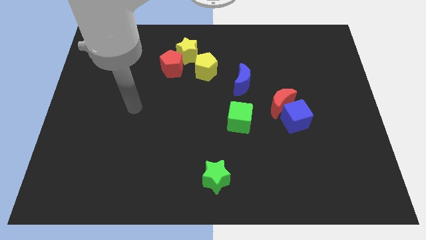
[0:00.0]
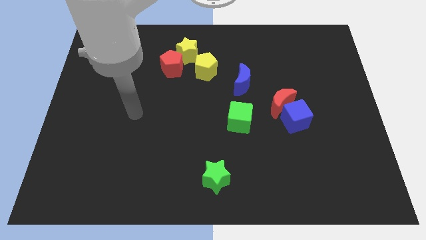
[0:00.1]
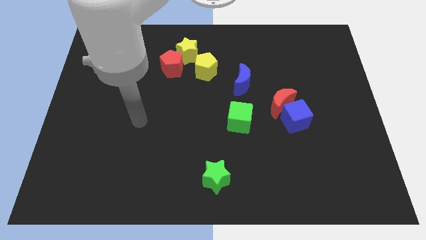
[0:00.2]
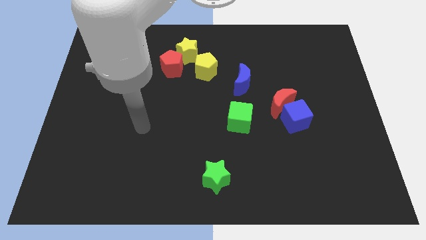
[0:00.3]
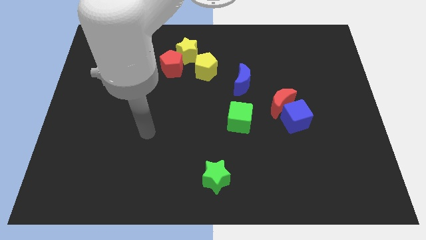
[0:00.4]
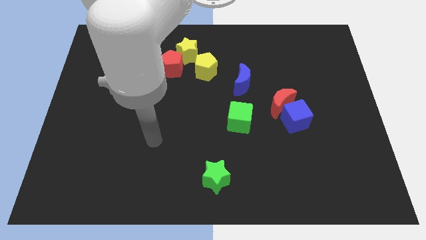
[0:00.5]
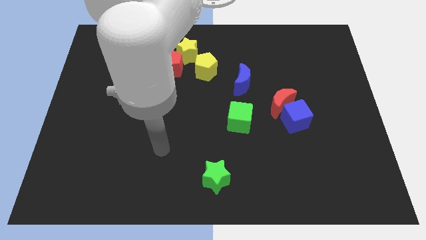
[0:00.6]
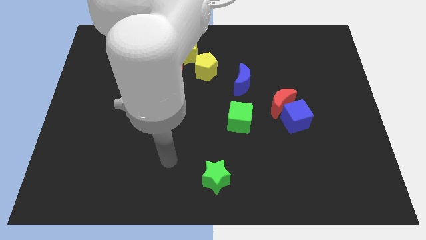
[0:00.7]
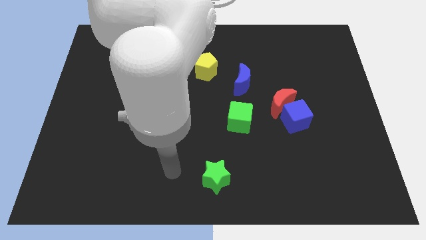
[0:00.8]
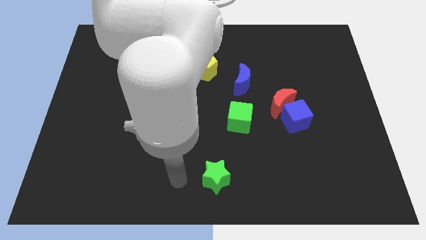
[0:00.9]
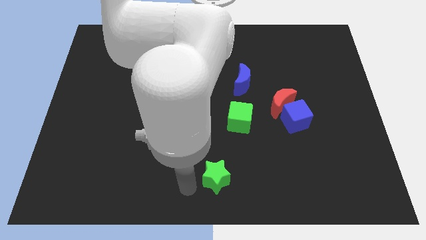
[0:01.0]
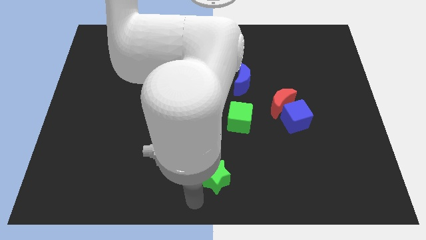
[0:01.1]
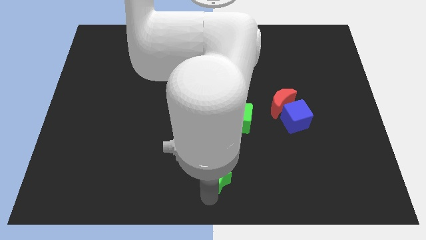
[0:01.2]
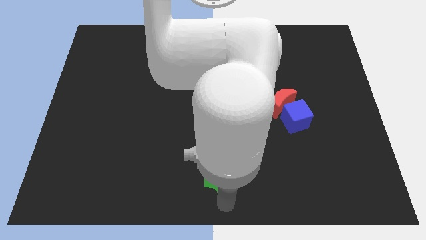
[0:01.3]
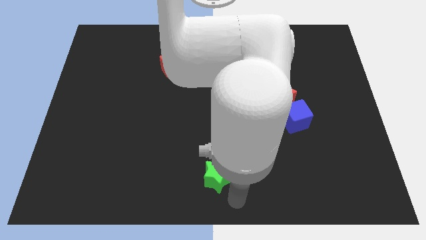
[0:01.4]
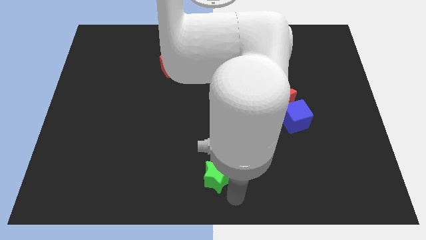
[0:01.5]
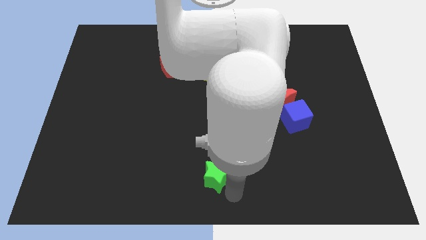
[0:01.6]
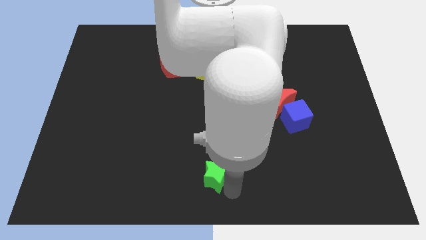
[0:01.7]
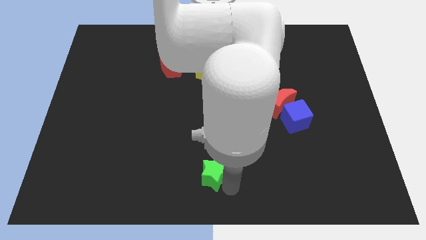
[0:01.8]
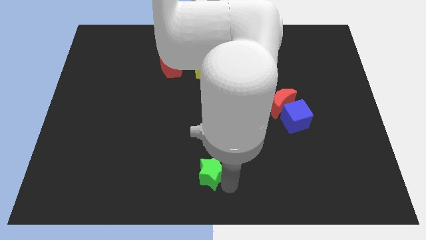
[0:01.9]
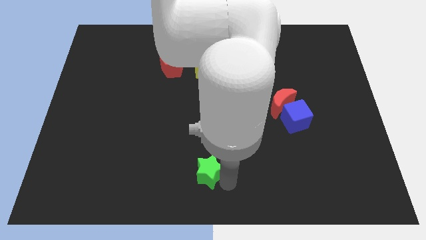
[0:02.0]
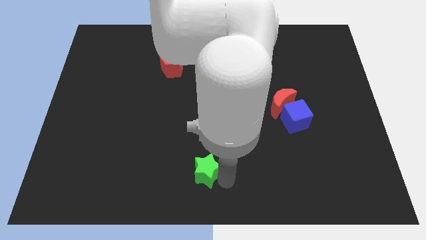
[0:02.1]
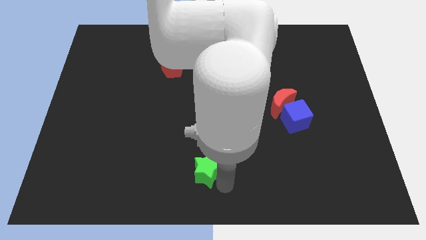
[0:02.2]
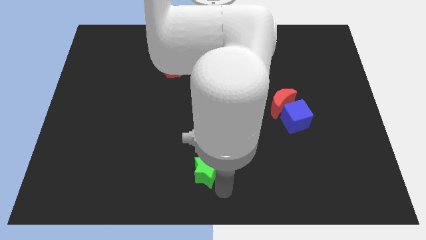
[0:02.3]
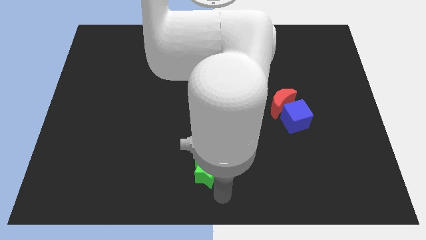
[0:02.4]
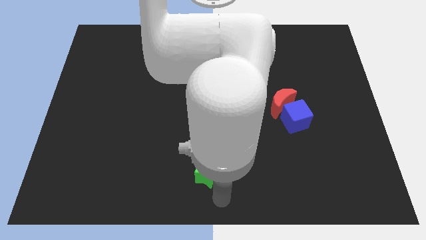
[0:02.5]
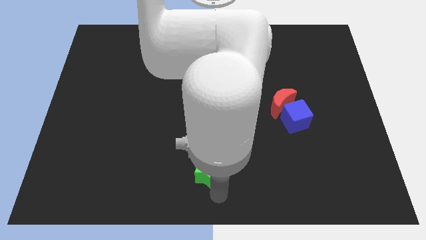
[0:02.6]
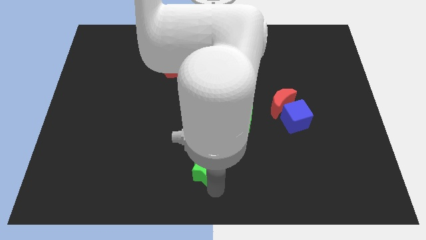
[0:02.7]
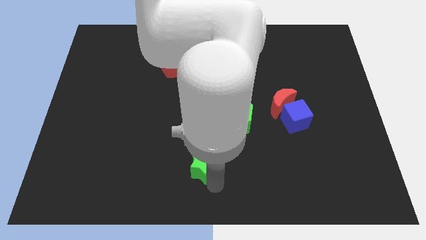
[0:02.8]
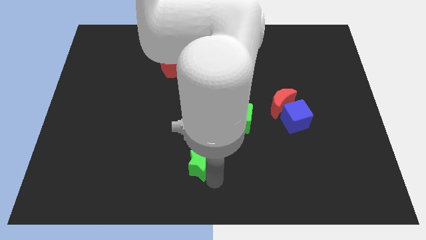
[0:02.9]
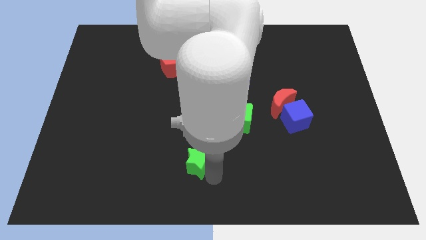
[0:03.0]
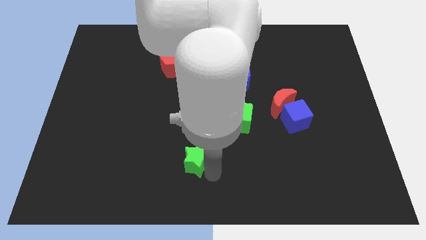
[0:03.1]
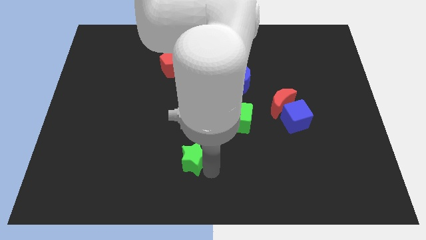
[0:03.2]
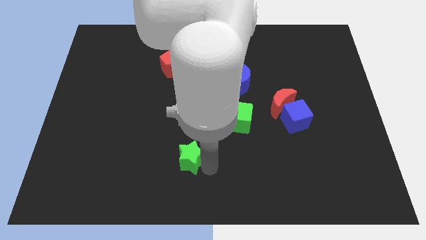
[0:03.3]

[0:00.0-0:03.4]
slide the green star diagonally upwards and left a bit

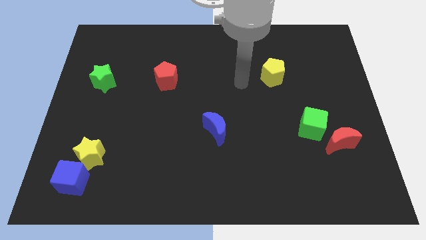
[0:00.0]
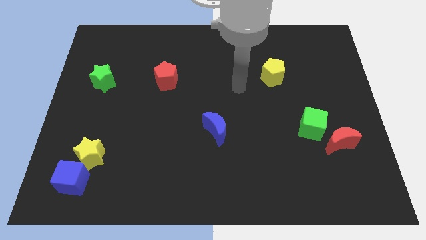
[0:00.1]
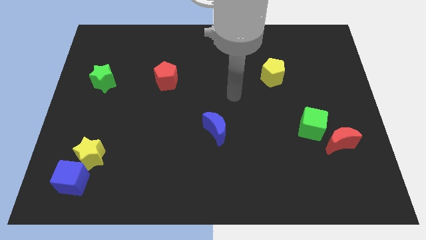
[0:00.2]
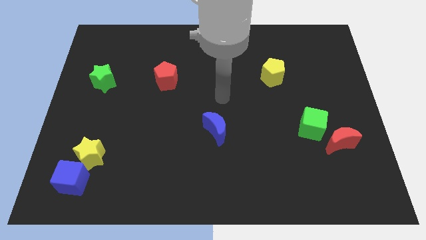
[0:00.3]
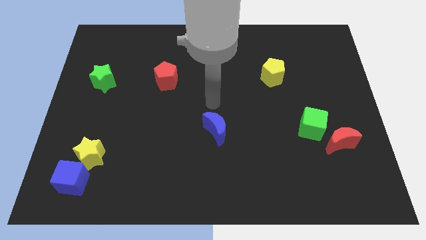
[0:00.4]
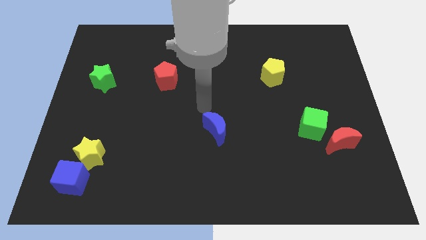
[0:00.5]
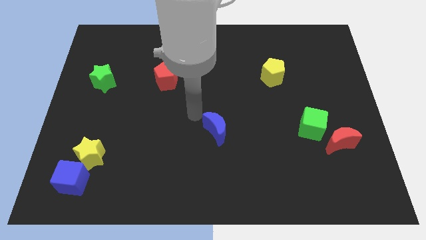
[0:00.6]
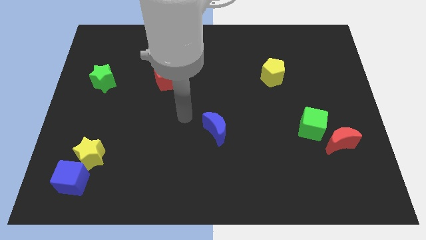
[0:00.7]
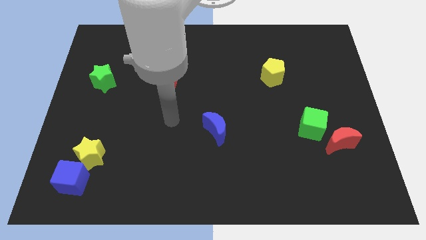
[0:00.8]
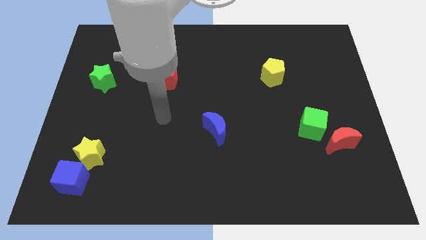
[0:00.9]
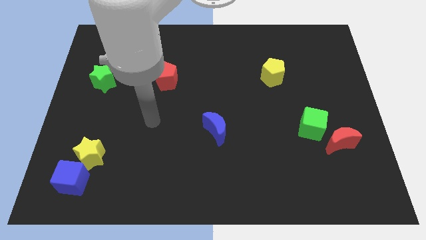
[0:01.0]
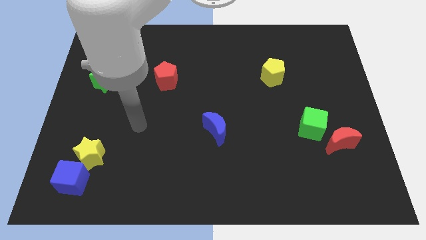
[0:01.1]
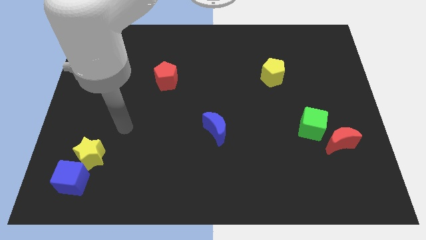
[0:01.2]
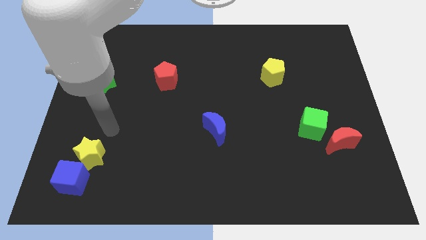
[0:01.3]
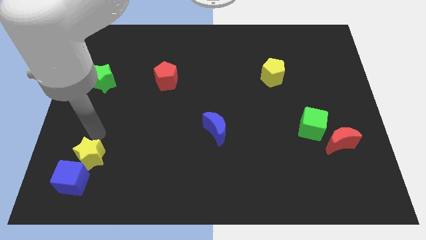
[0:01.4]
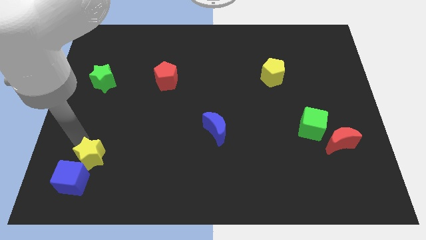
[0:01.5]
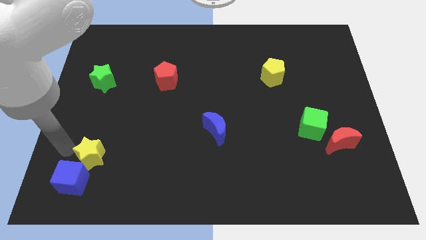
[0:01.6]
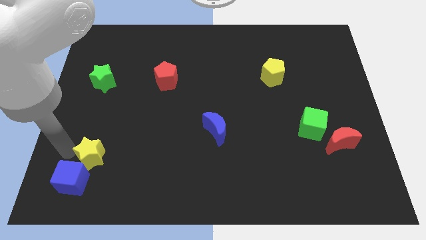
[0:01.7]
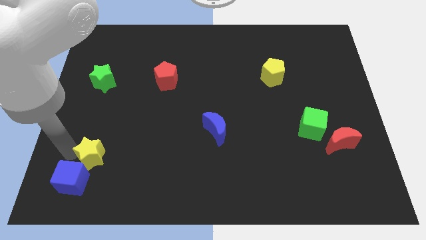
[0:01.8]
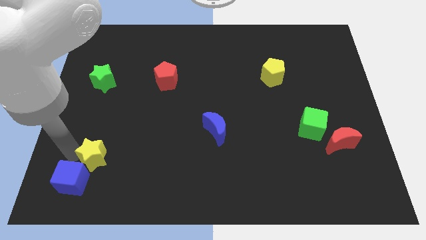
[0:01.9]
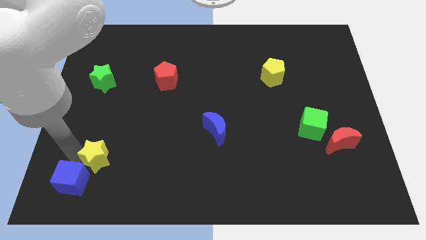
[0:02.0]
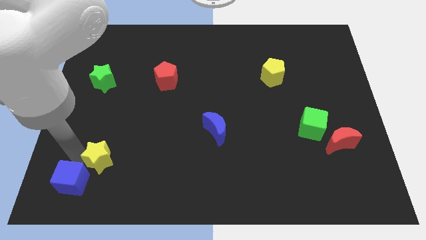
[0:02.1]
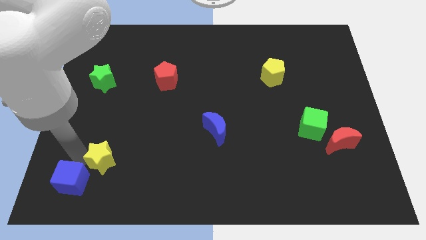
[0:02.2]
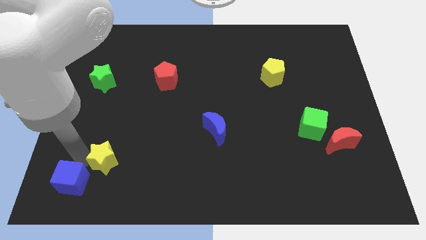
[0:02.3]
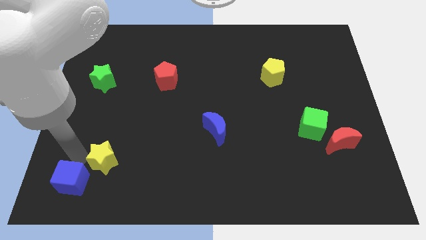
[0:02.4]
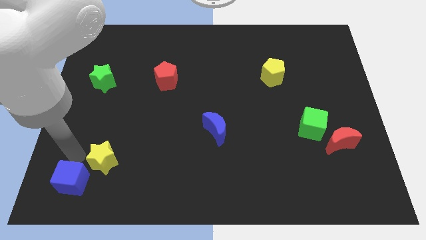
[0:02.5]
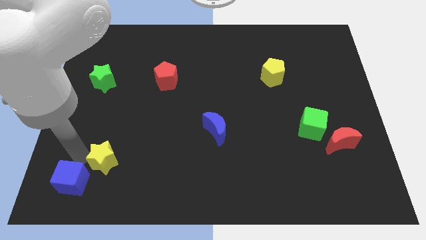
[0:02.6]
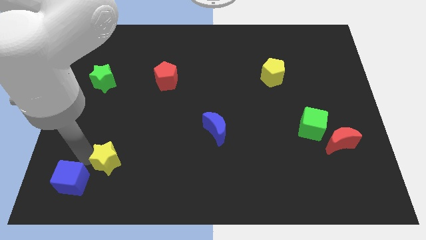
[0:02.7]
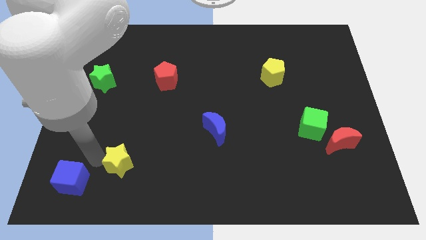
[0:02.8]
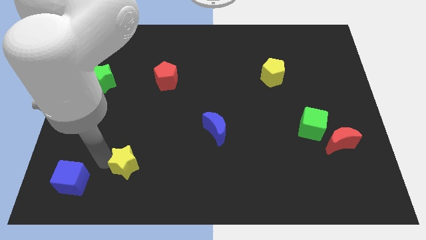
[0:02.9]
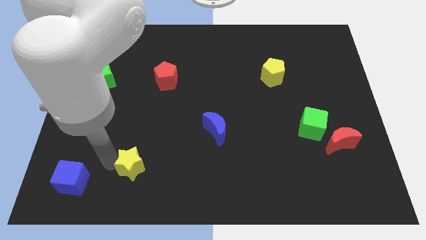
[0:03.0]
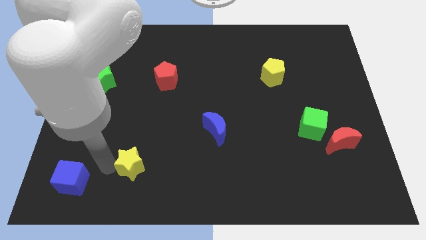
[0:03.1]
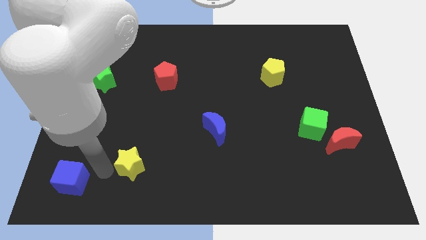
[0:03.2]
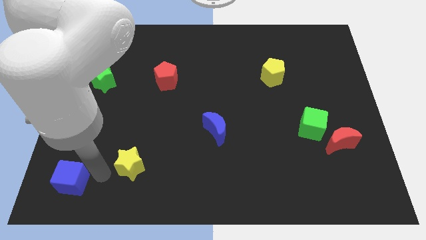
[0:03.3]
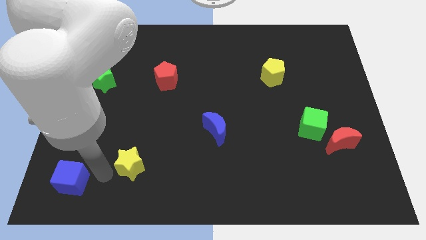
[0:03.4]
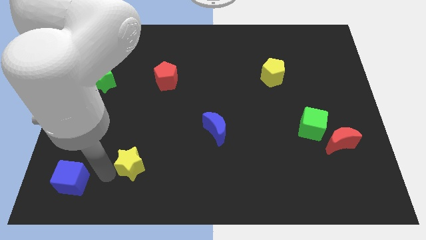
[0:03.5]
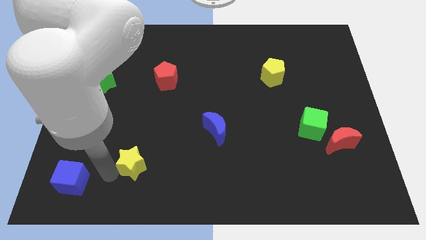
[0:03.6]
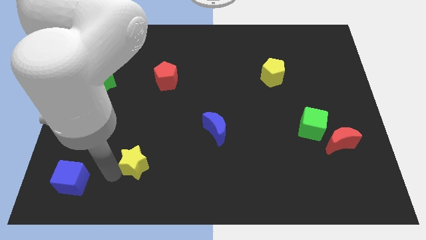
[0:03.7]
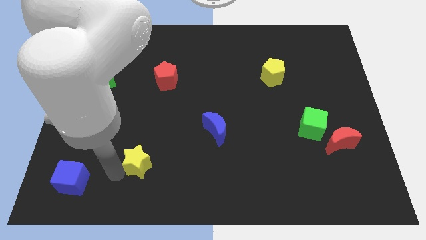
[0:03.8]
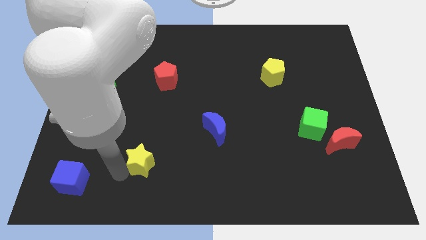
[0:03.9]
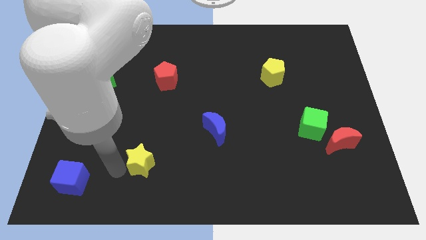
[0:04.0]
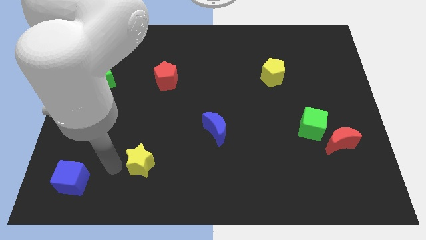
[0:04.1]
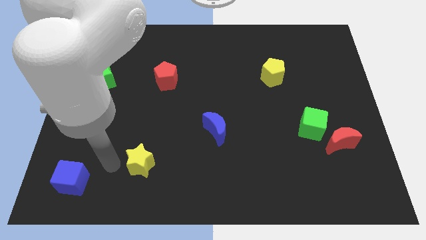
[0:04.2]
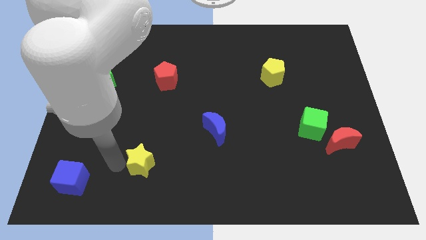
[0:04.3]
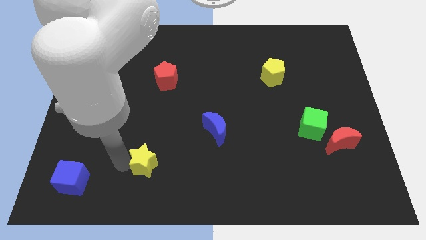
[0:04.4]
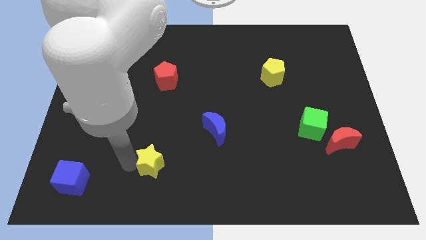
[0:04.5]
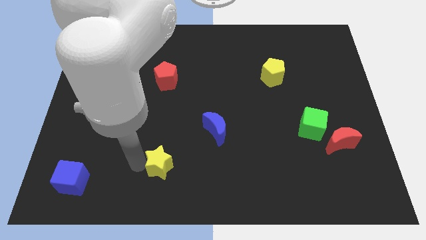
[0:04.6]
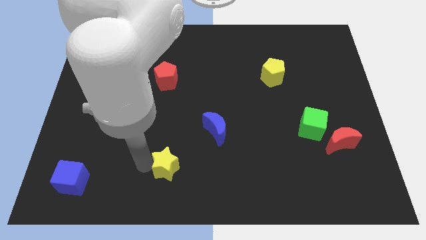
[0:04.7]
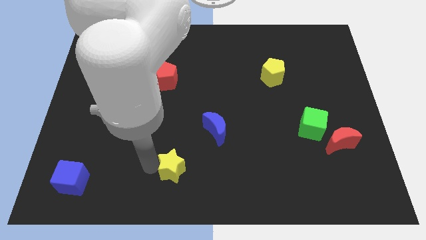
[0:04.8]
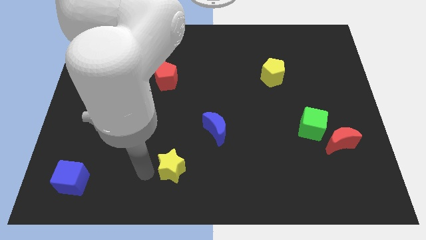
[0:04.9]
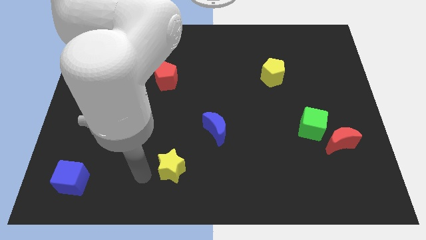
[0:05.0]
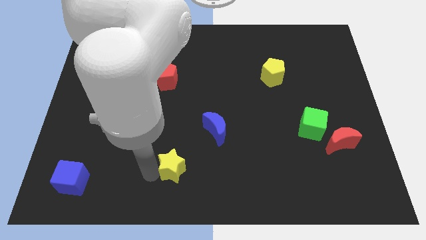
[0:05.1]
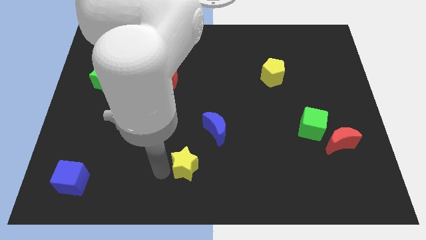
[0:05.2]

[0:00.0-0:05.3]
move the yellow star to the right
